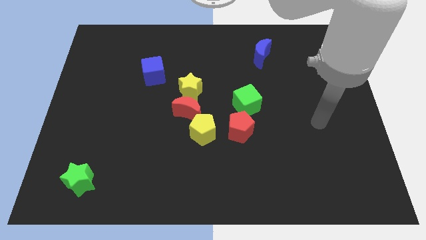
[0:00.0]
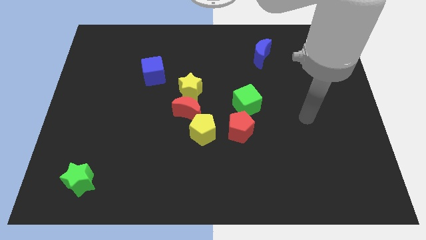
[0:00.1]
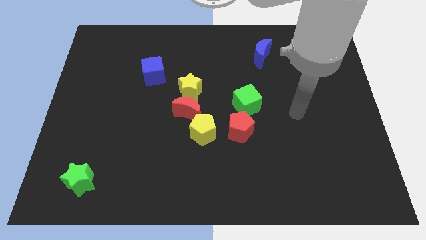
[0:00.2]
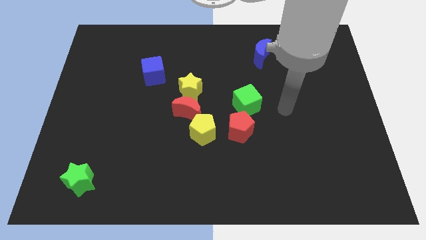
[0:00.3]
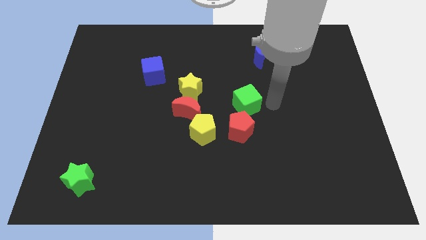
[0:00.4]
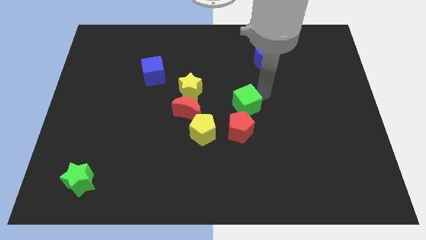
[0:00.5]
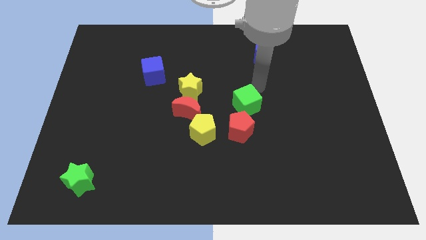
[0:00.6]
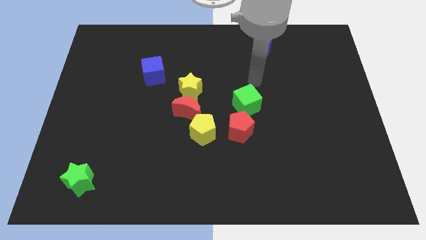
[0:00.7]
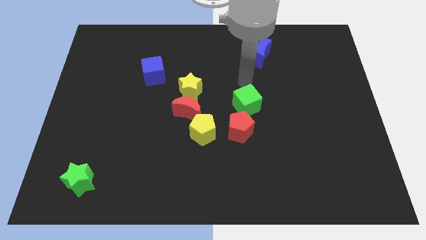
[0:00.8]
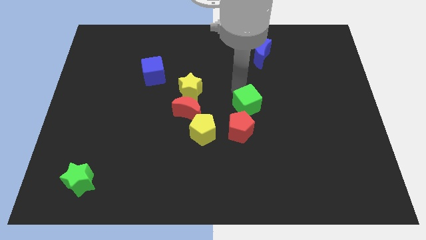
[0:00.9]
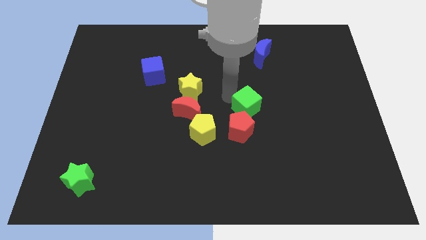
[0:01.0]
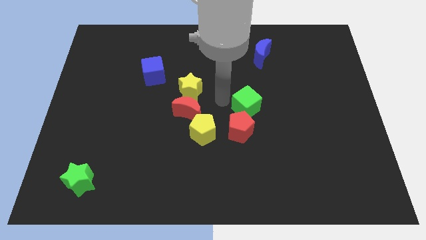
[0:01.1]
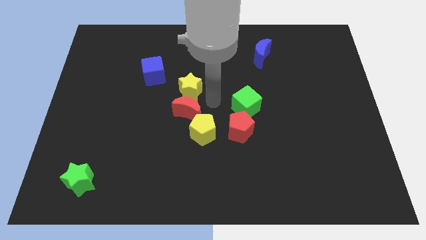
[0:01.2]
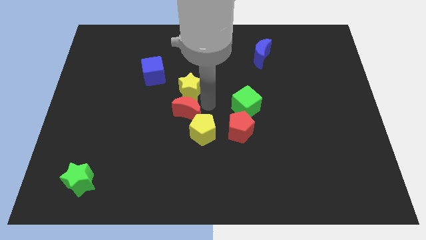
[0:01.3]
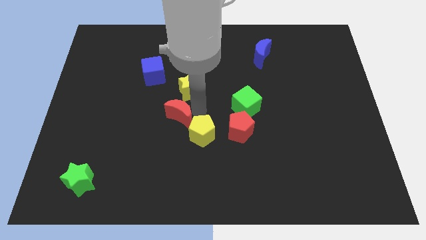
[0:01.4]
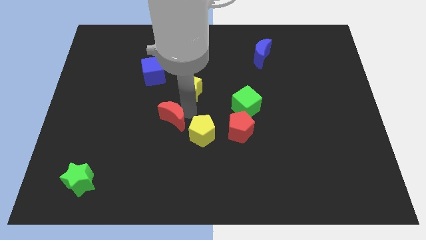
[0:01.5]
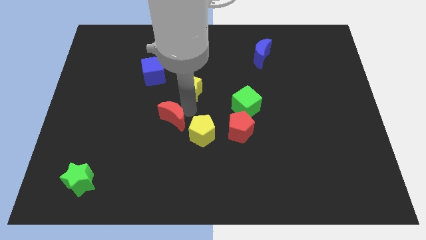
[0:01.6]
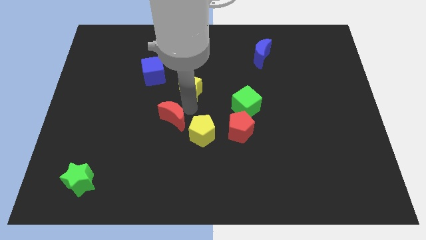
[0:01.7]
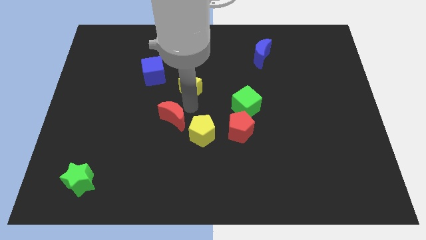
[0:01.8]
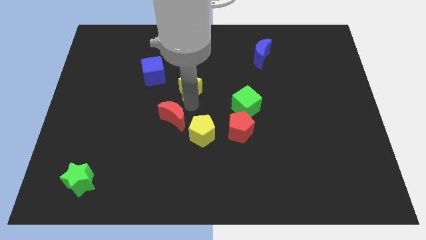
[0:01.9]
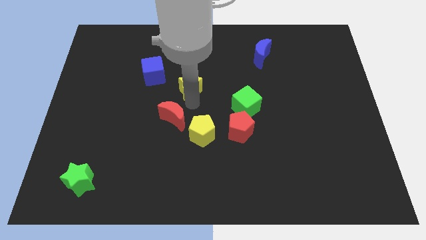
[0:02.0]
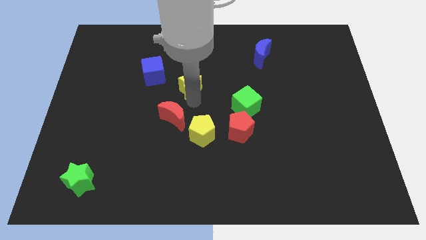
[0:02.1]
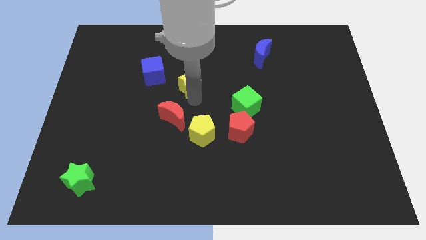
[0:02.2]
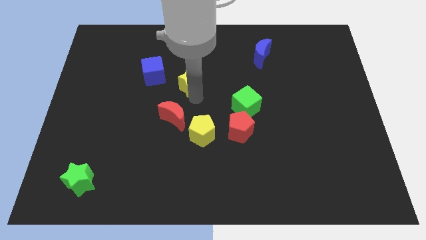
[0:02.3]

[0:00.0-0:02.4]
move the yellow star away from the red moon

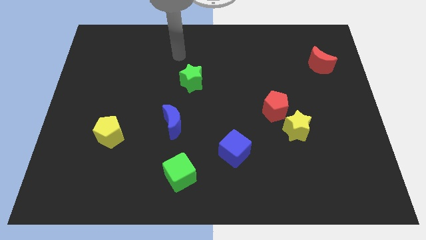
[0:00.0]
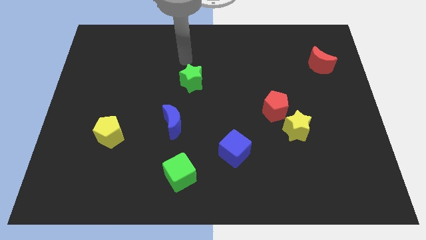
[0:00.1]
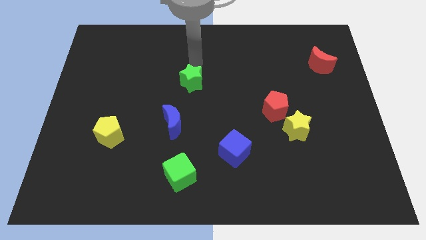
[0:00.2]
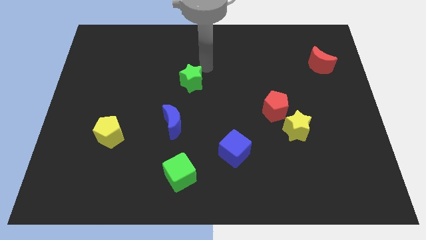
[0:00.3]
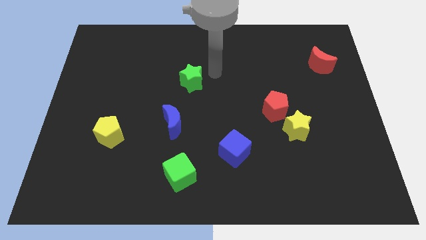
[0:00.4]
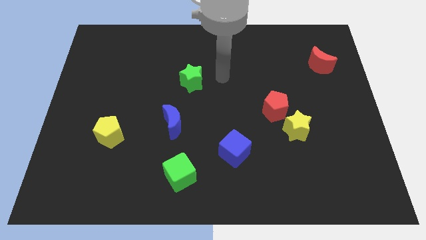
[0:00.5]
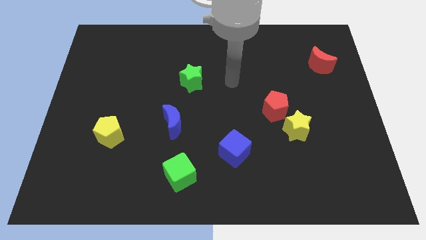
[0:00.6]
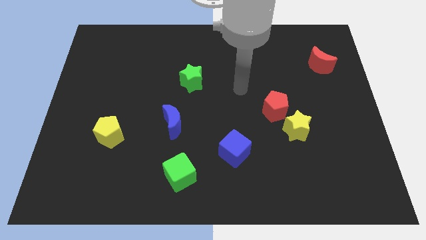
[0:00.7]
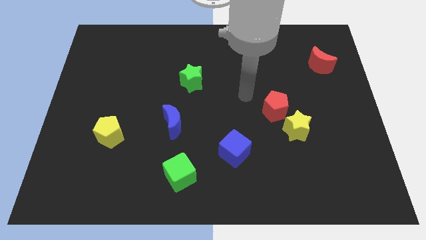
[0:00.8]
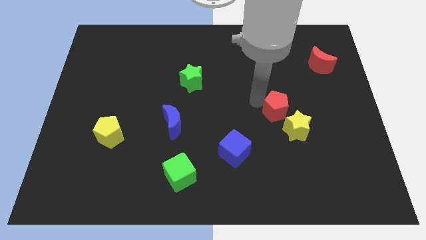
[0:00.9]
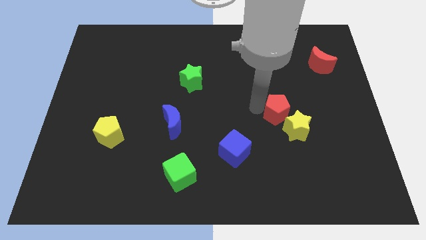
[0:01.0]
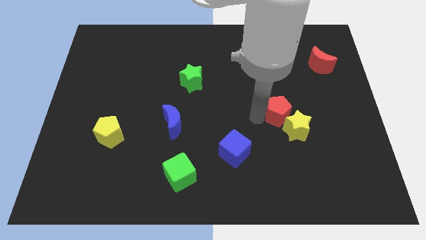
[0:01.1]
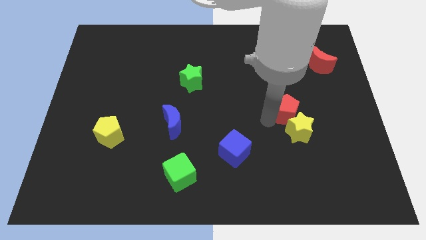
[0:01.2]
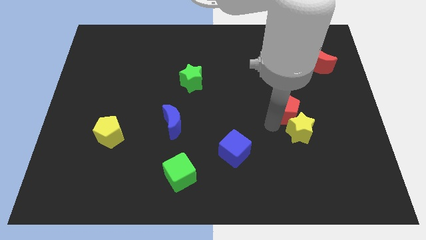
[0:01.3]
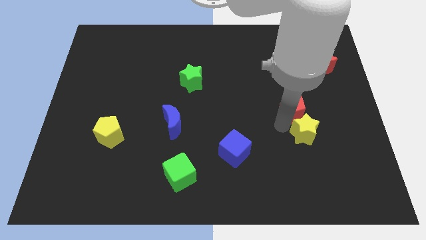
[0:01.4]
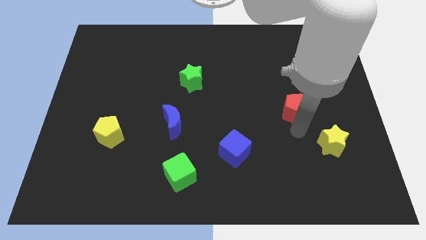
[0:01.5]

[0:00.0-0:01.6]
pull the red pentagon apart from the yellow star

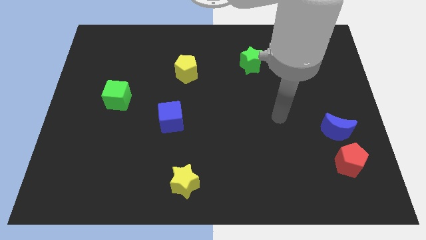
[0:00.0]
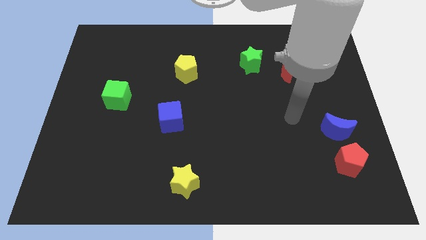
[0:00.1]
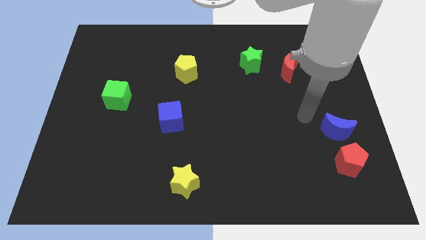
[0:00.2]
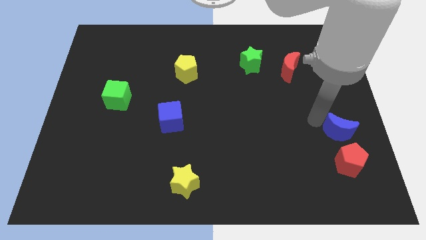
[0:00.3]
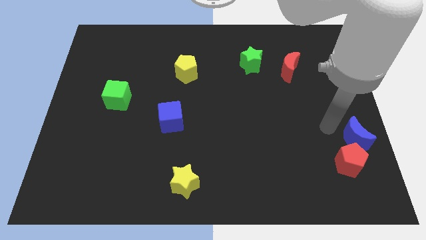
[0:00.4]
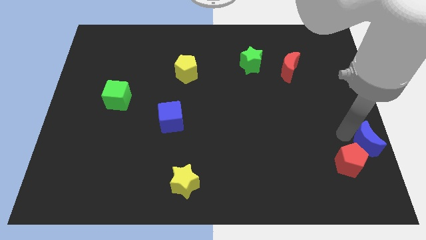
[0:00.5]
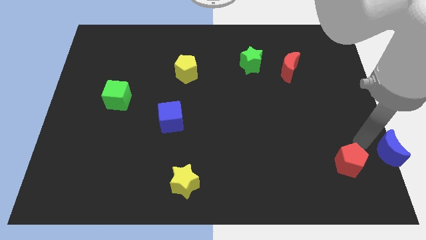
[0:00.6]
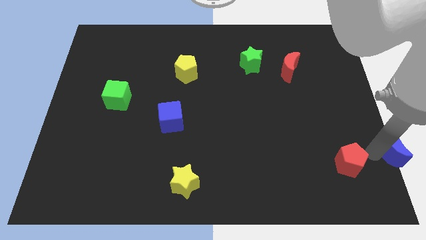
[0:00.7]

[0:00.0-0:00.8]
move the red pentagon away from the blue moon

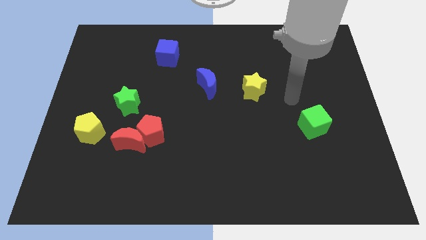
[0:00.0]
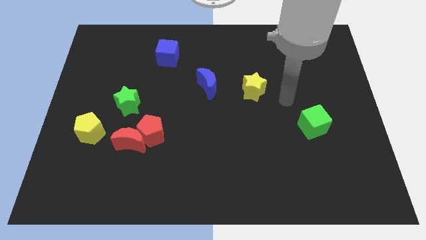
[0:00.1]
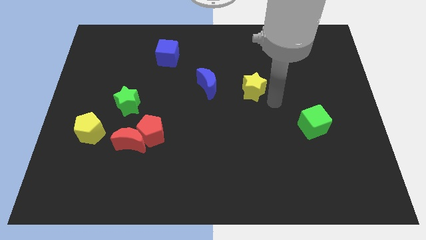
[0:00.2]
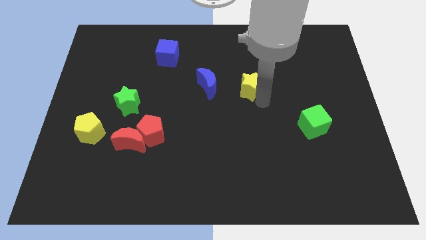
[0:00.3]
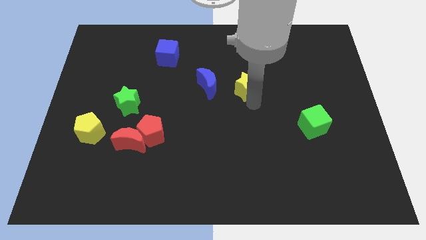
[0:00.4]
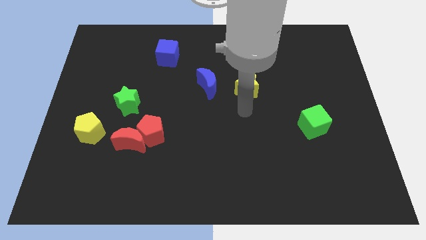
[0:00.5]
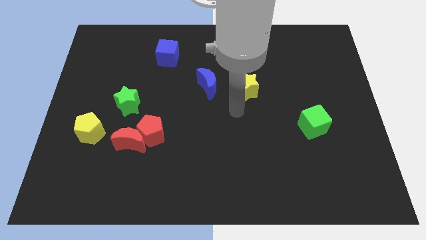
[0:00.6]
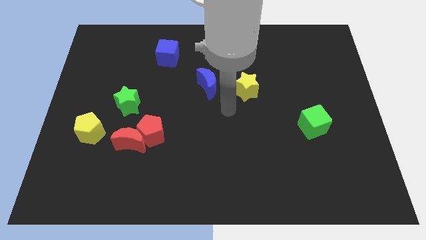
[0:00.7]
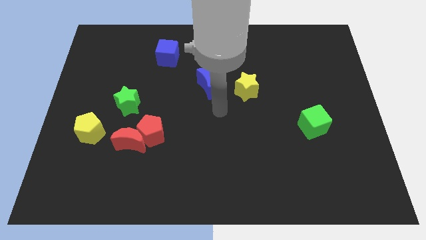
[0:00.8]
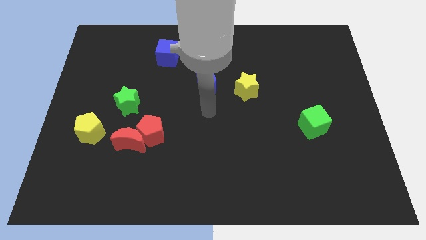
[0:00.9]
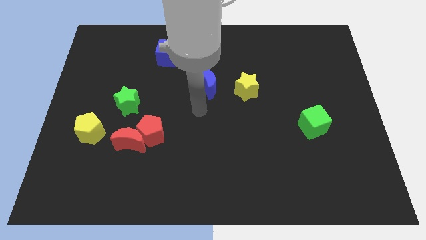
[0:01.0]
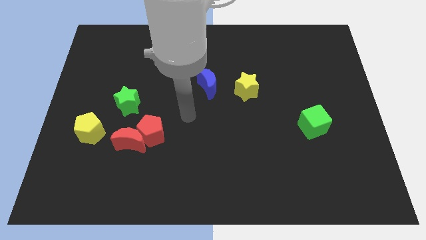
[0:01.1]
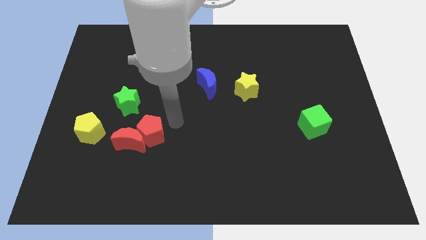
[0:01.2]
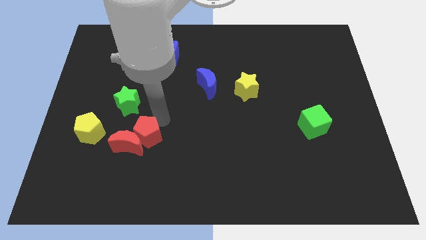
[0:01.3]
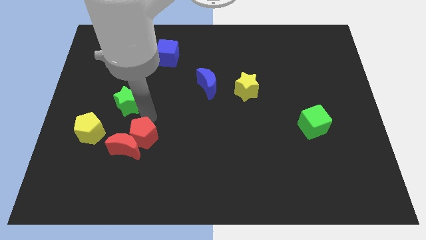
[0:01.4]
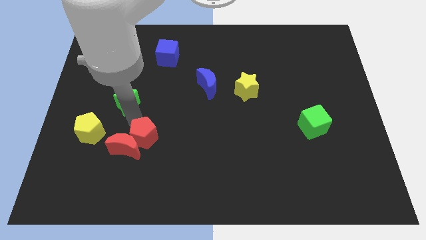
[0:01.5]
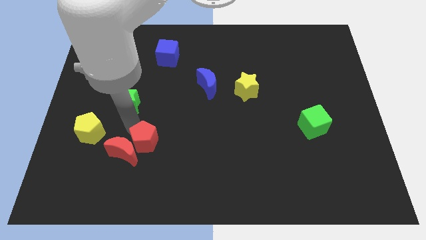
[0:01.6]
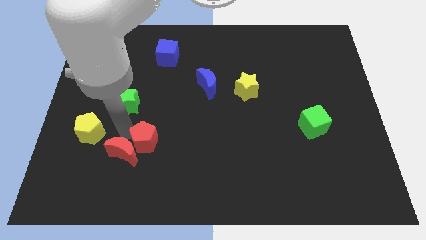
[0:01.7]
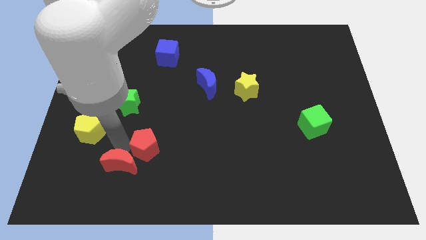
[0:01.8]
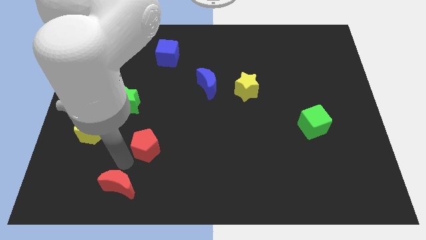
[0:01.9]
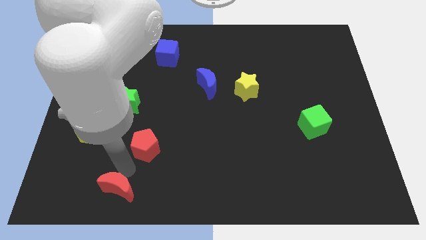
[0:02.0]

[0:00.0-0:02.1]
pull the red pentagon apart from the red moon

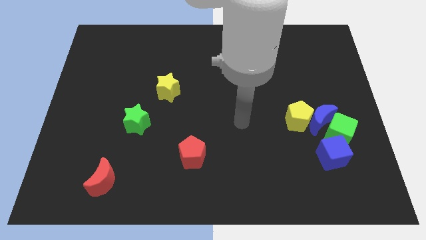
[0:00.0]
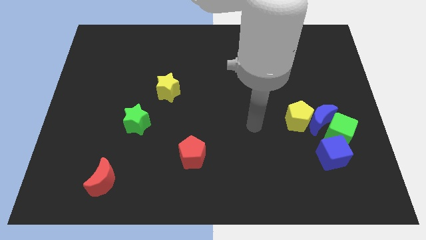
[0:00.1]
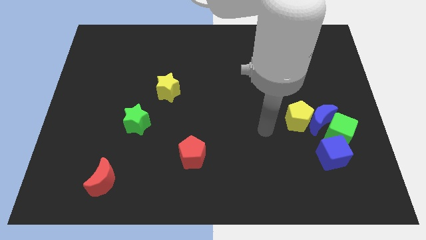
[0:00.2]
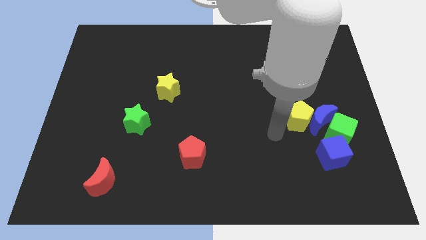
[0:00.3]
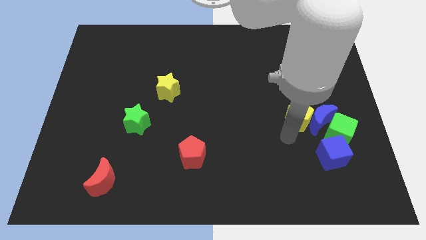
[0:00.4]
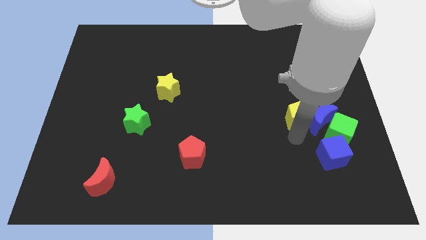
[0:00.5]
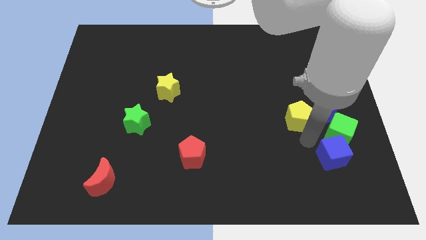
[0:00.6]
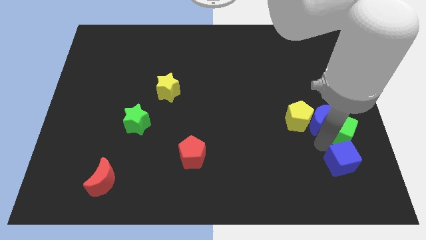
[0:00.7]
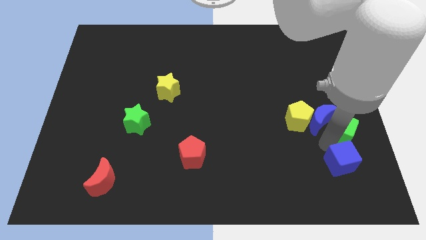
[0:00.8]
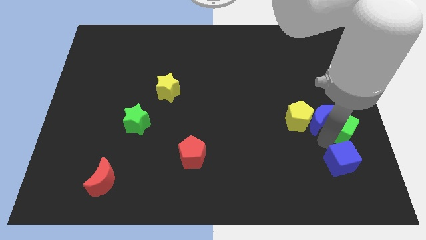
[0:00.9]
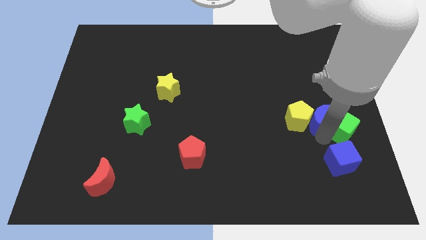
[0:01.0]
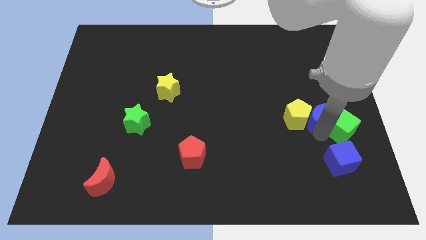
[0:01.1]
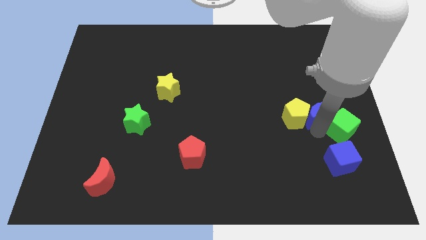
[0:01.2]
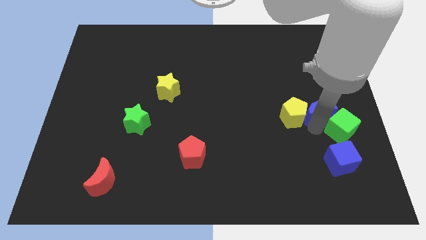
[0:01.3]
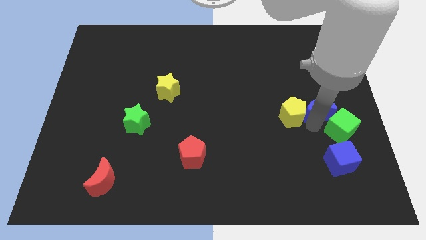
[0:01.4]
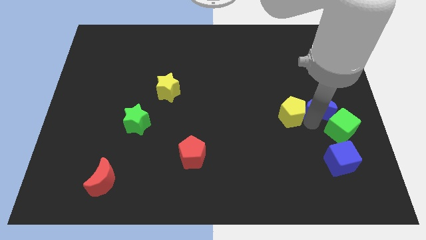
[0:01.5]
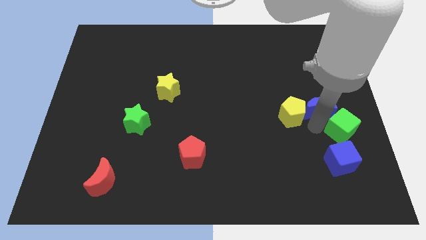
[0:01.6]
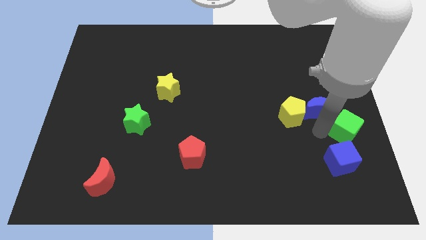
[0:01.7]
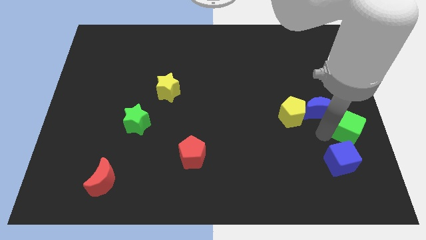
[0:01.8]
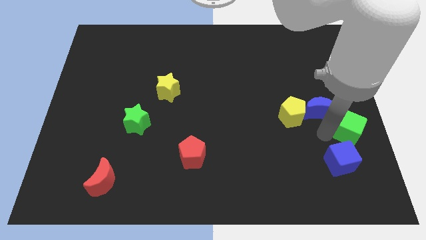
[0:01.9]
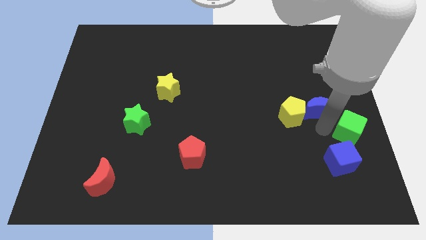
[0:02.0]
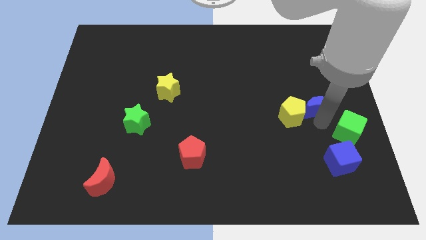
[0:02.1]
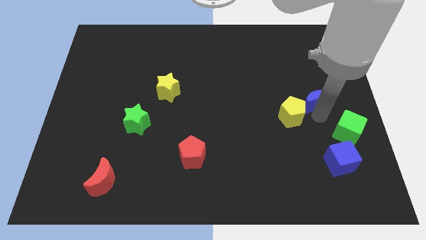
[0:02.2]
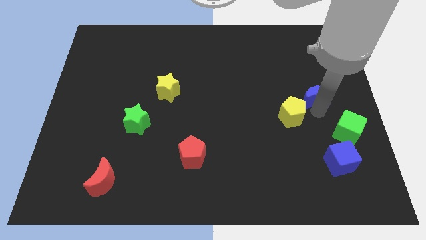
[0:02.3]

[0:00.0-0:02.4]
move the blue moon away from the group of blocks
